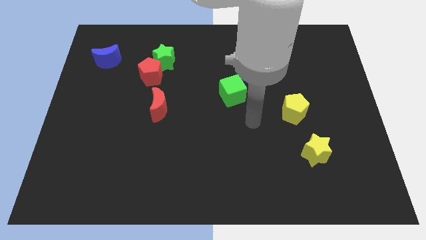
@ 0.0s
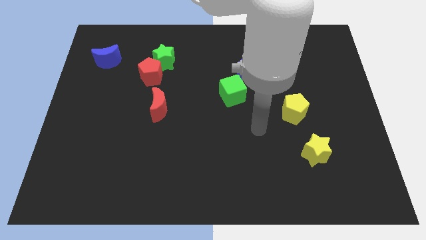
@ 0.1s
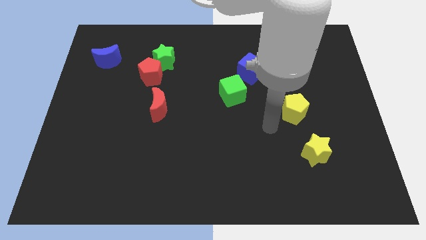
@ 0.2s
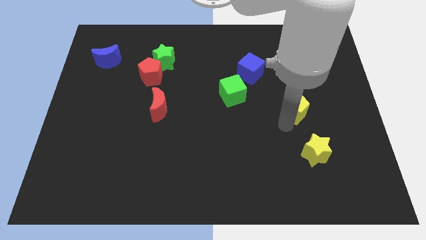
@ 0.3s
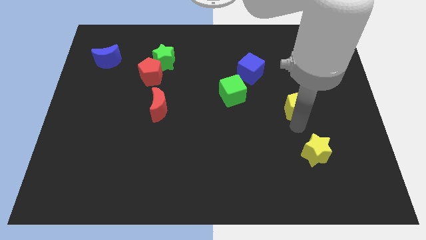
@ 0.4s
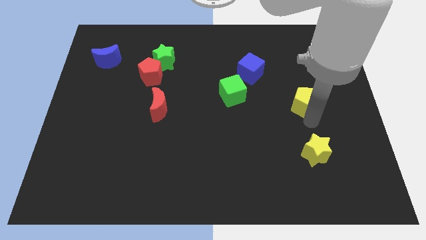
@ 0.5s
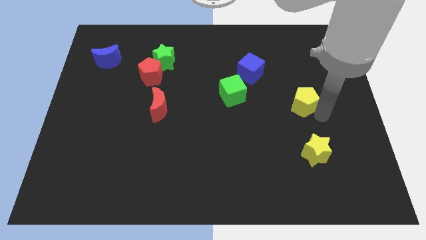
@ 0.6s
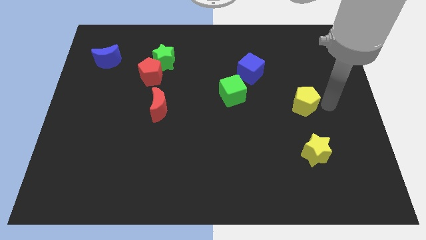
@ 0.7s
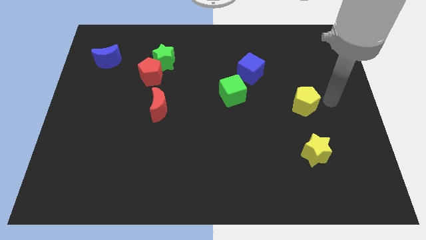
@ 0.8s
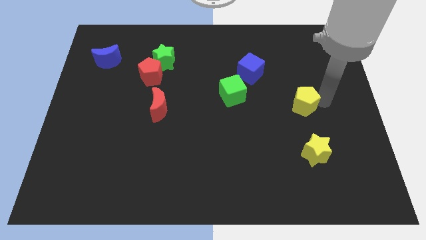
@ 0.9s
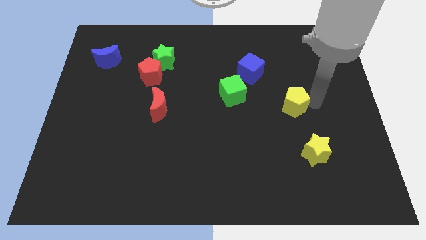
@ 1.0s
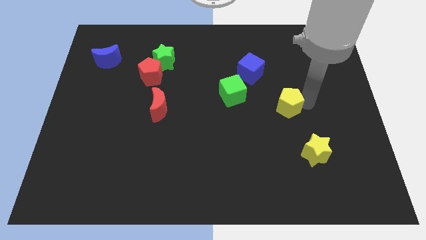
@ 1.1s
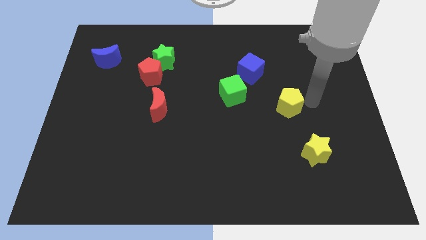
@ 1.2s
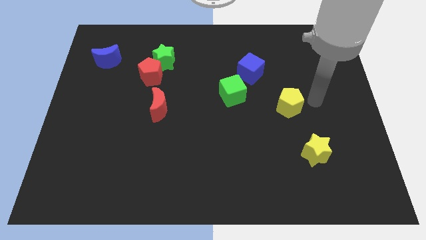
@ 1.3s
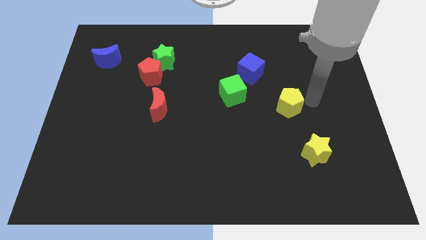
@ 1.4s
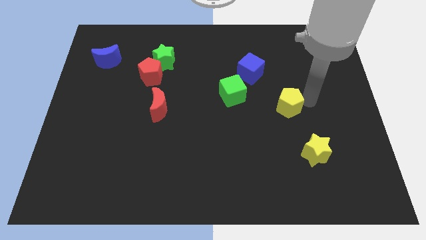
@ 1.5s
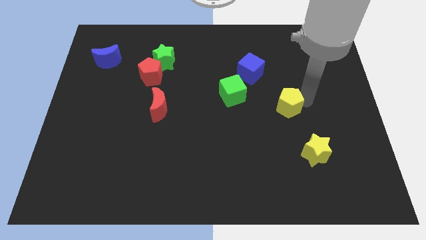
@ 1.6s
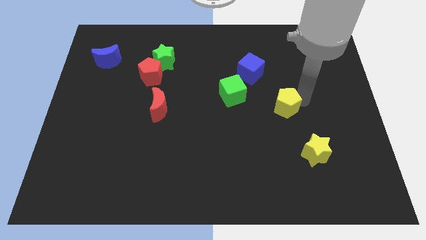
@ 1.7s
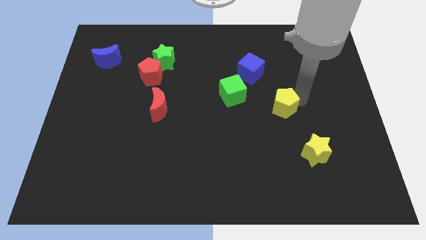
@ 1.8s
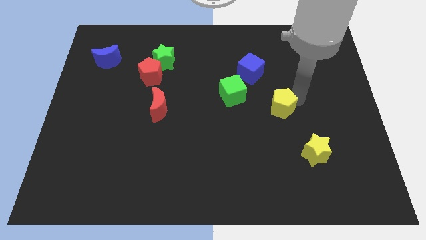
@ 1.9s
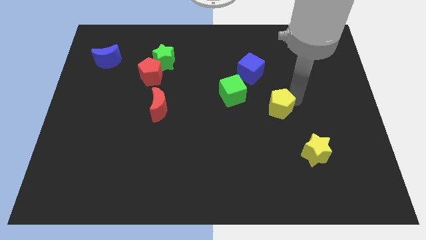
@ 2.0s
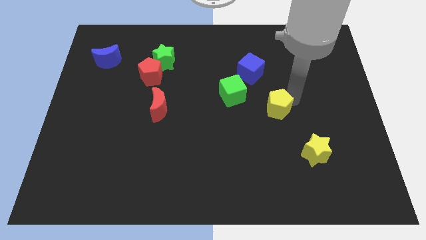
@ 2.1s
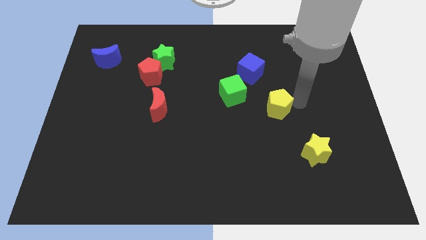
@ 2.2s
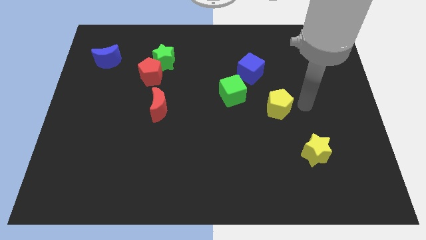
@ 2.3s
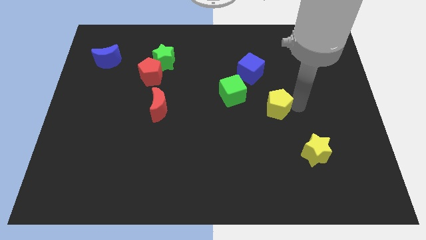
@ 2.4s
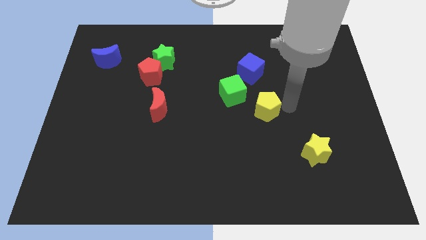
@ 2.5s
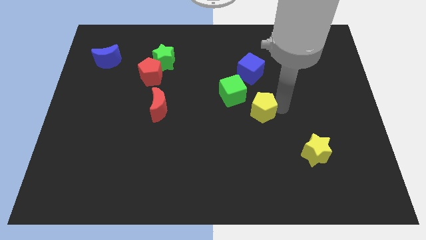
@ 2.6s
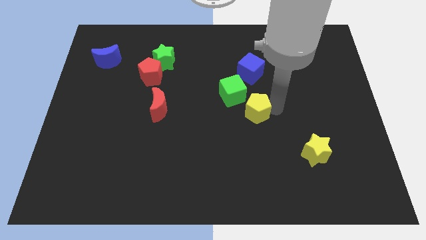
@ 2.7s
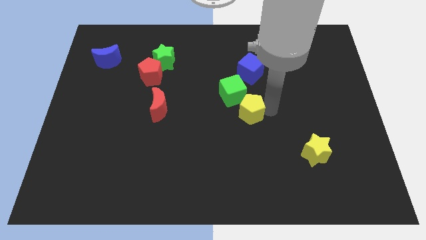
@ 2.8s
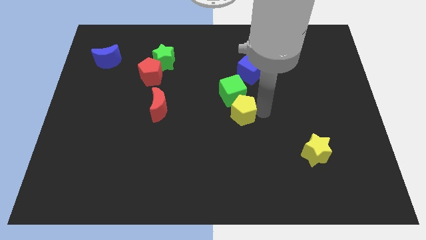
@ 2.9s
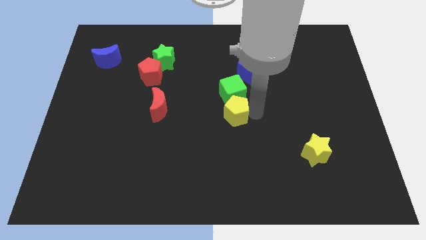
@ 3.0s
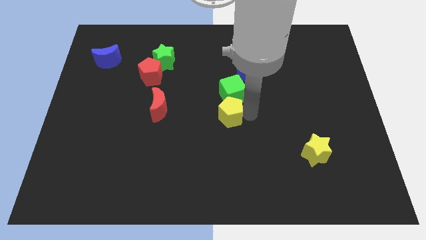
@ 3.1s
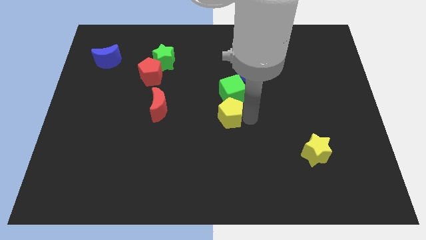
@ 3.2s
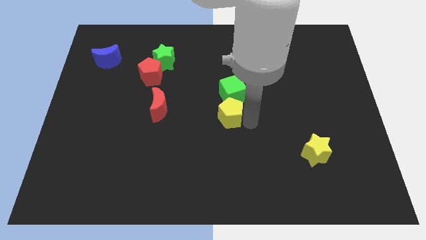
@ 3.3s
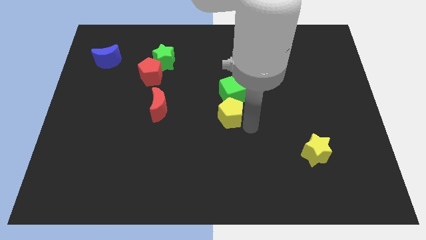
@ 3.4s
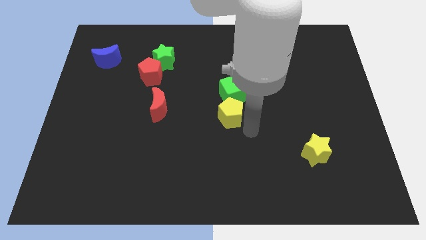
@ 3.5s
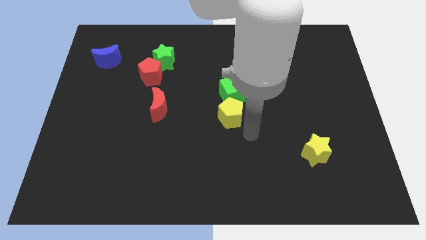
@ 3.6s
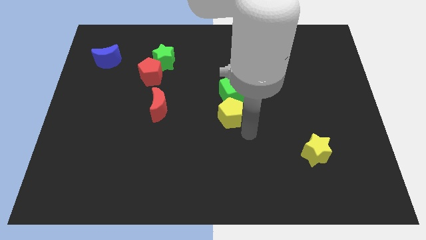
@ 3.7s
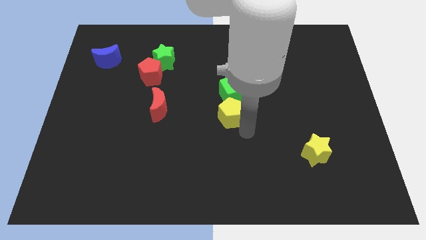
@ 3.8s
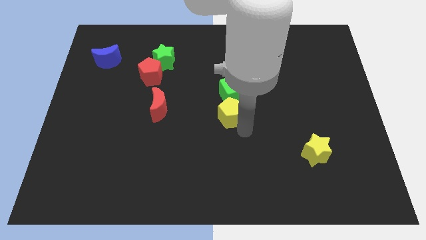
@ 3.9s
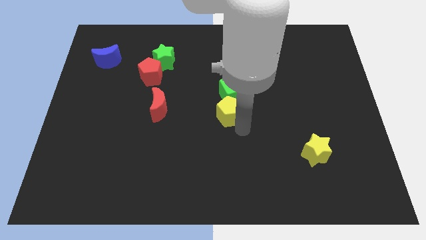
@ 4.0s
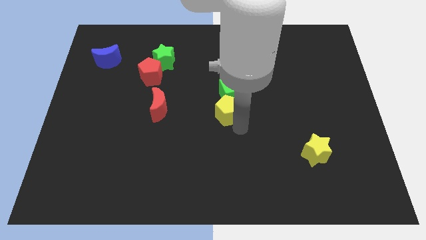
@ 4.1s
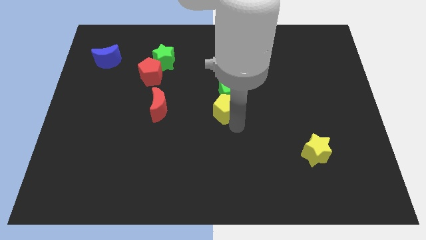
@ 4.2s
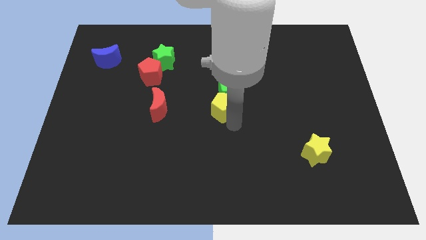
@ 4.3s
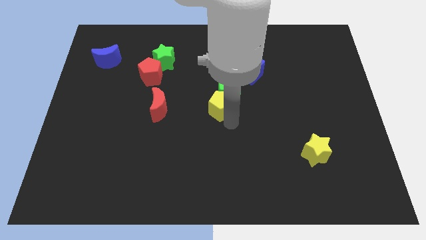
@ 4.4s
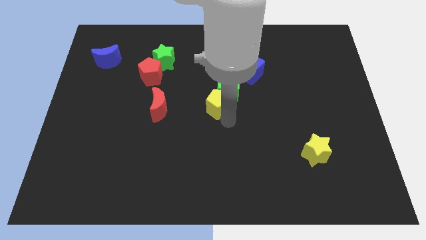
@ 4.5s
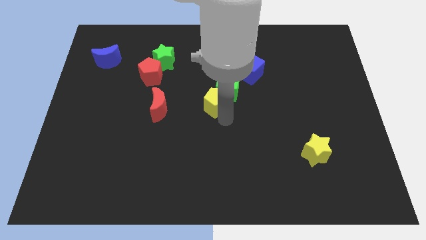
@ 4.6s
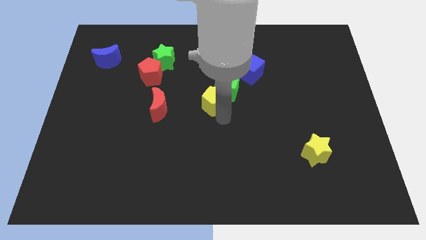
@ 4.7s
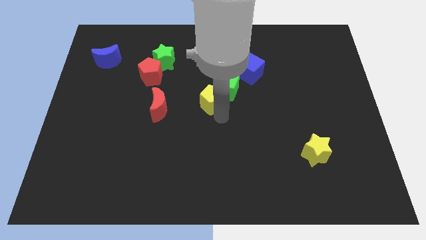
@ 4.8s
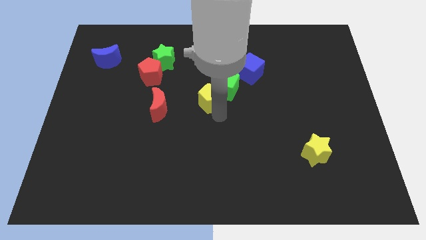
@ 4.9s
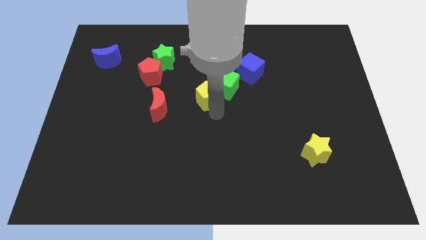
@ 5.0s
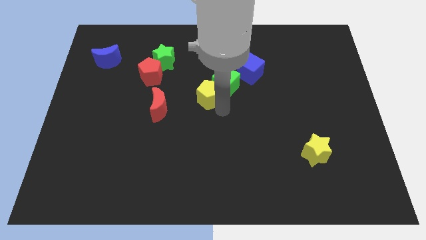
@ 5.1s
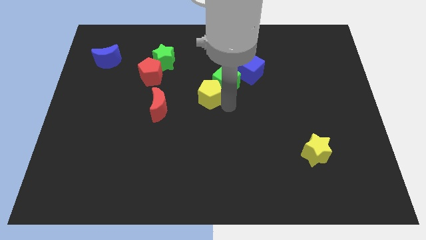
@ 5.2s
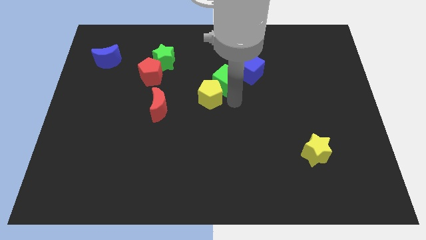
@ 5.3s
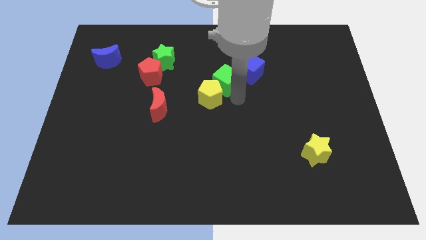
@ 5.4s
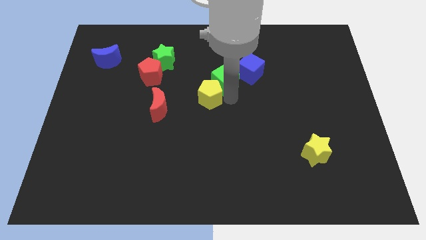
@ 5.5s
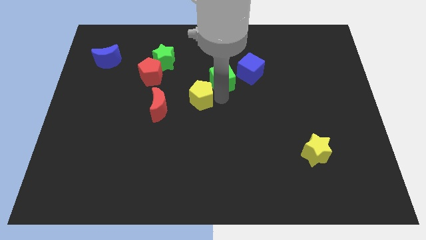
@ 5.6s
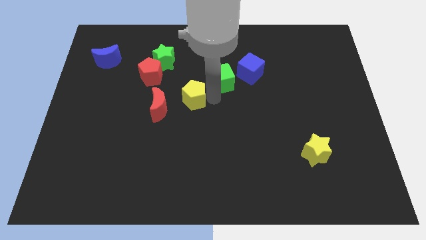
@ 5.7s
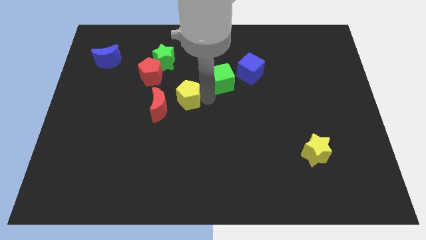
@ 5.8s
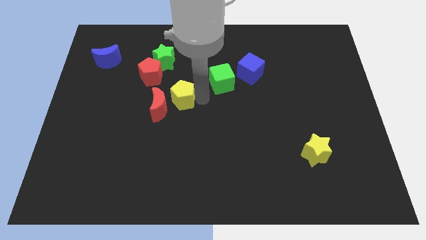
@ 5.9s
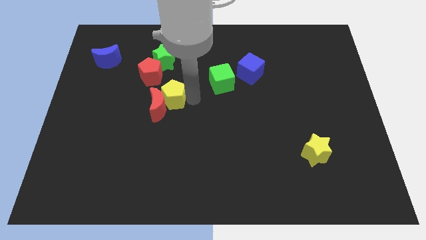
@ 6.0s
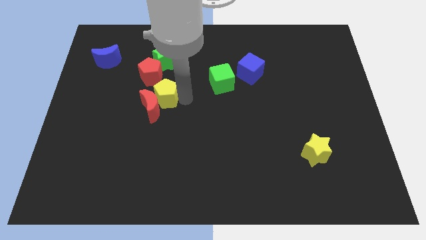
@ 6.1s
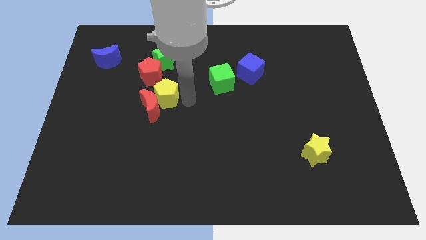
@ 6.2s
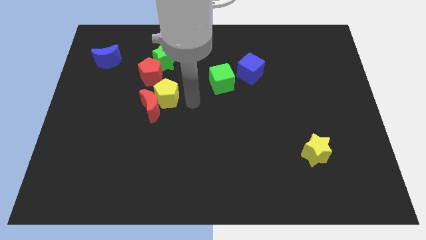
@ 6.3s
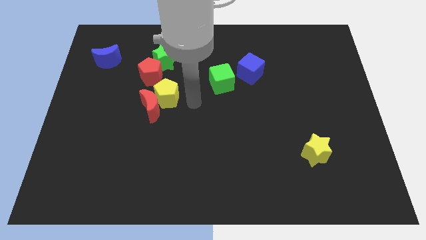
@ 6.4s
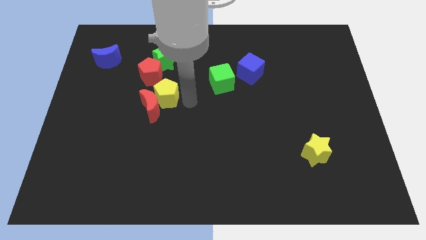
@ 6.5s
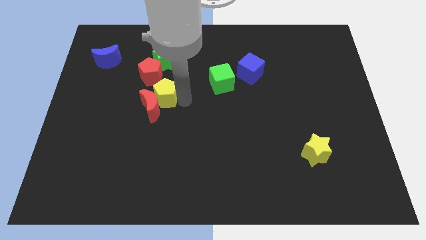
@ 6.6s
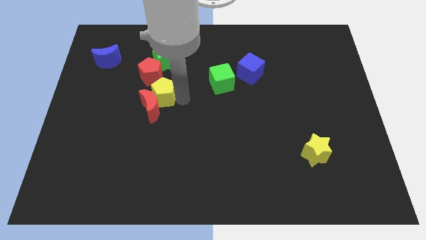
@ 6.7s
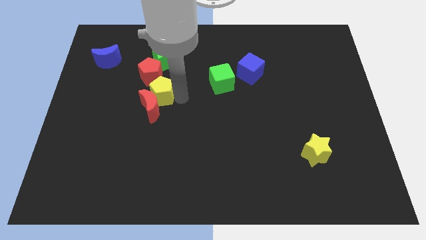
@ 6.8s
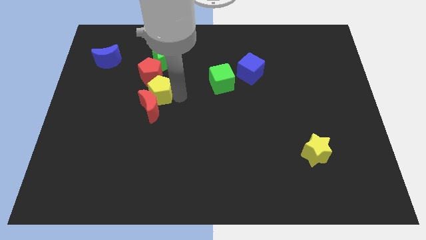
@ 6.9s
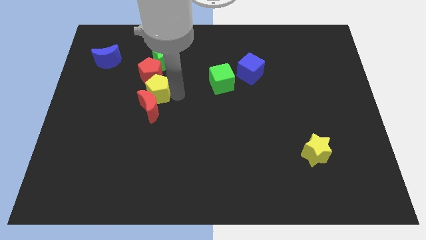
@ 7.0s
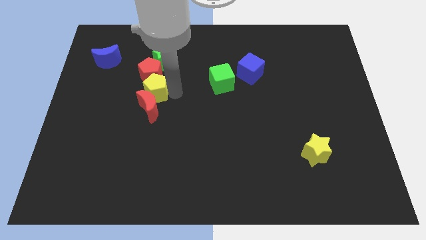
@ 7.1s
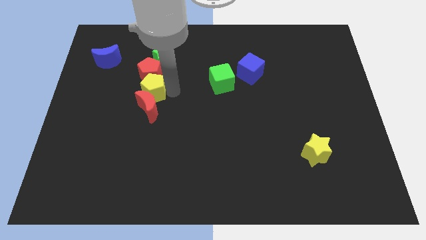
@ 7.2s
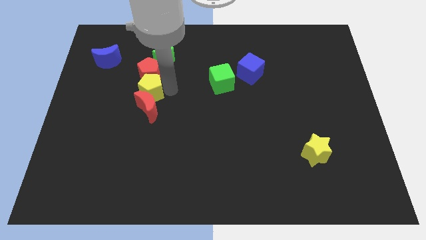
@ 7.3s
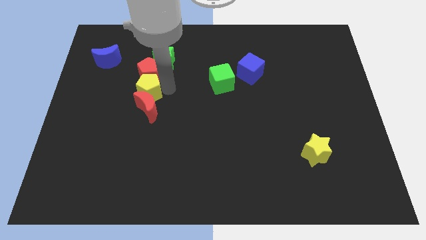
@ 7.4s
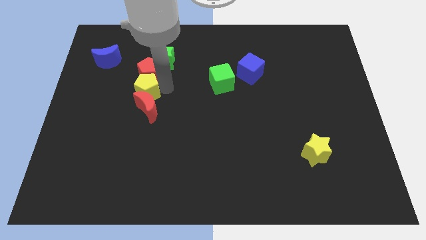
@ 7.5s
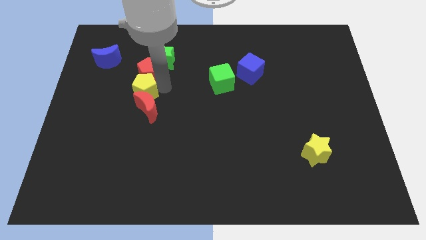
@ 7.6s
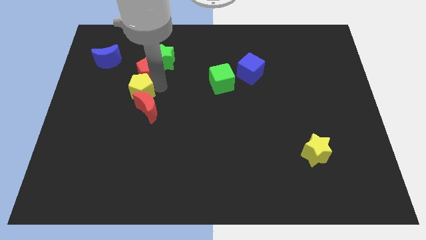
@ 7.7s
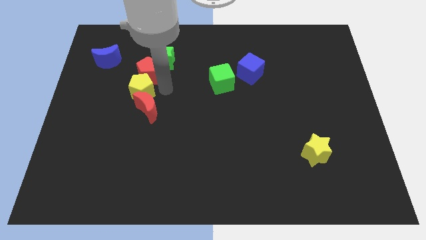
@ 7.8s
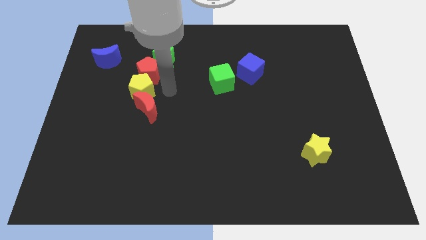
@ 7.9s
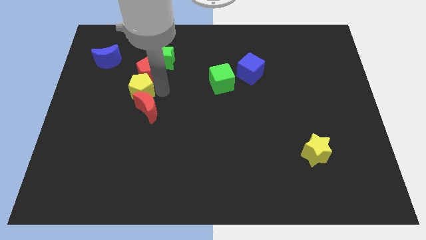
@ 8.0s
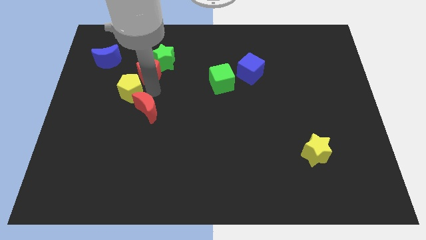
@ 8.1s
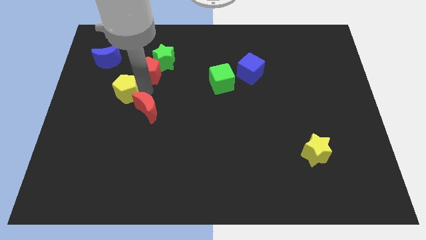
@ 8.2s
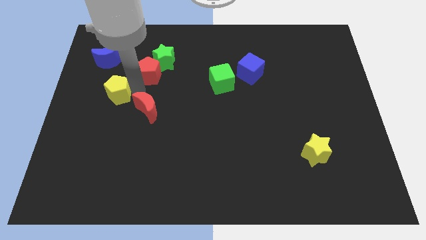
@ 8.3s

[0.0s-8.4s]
move the yellow pentagon to the bottom side of the blue moon
